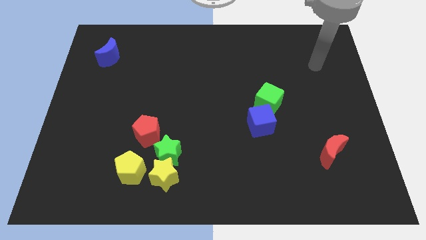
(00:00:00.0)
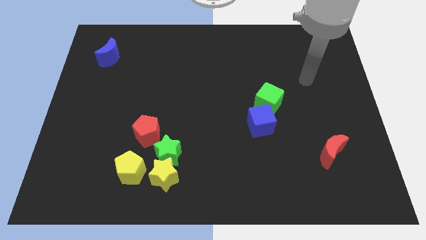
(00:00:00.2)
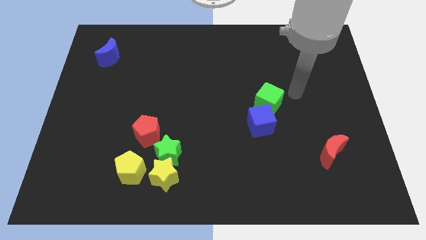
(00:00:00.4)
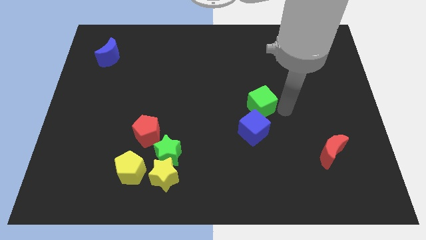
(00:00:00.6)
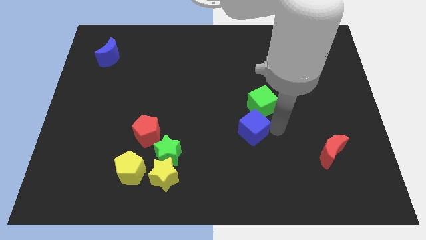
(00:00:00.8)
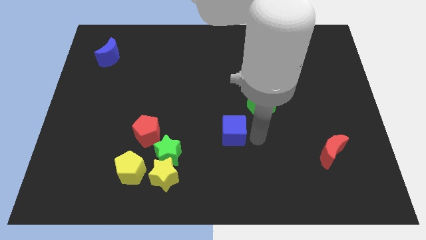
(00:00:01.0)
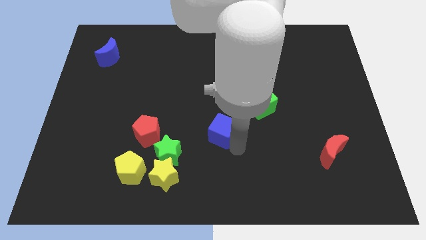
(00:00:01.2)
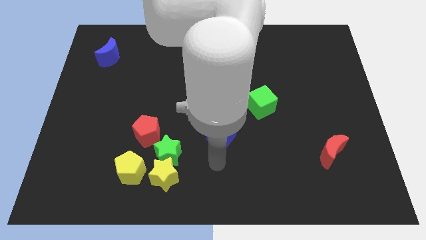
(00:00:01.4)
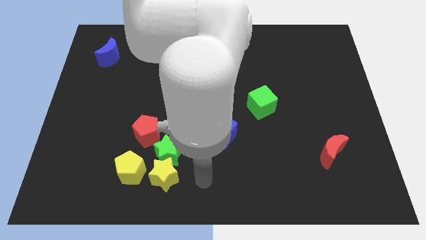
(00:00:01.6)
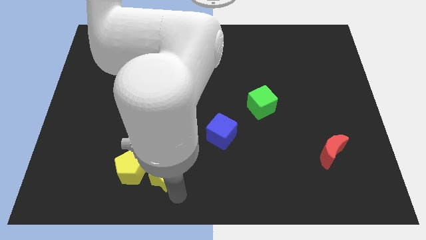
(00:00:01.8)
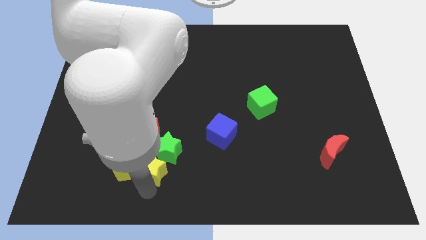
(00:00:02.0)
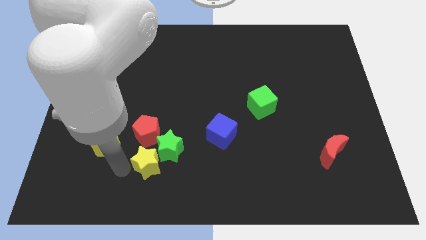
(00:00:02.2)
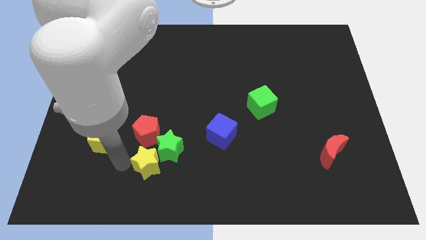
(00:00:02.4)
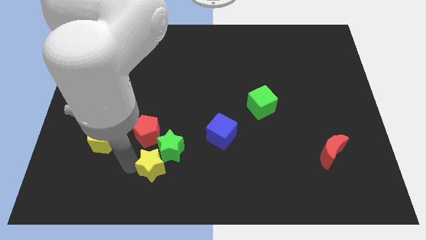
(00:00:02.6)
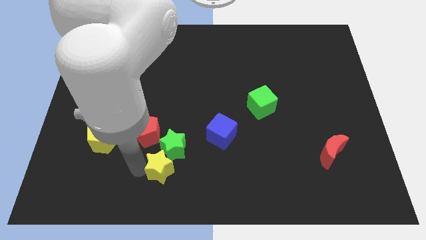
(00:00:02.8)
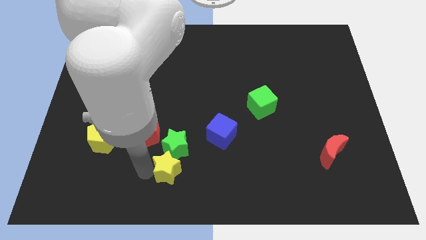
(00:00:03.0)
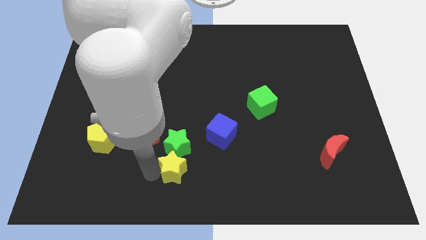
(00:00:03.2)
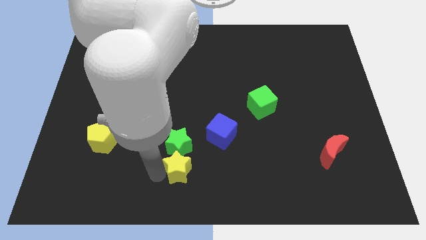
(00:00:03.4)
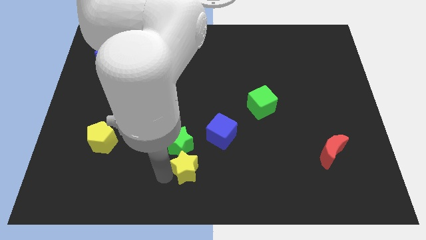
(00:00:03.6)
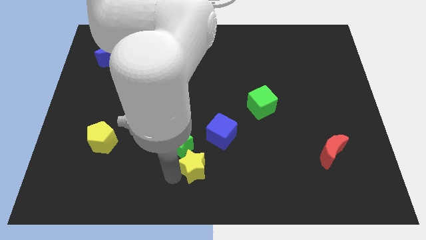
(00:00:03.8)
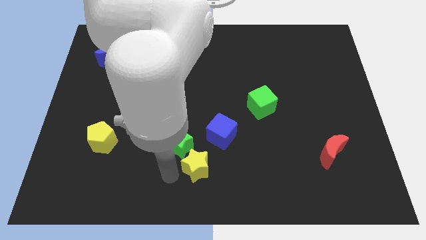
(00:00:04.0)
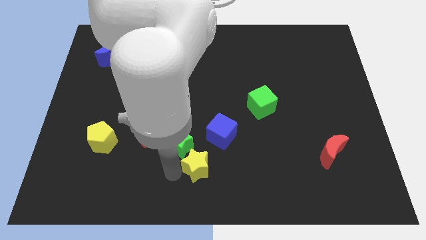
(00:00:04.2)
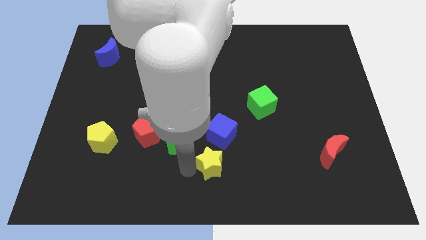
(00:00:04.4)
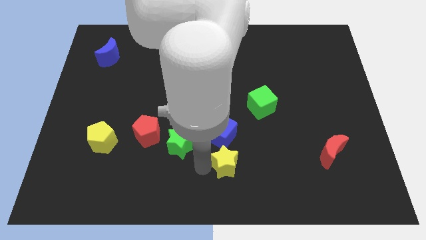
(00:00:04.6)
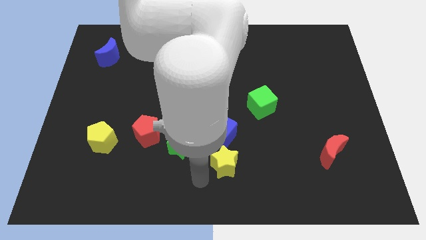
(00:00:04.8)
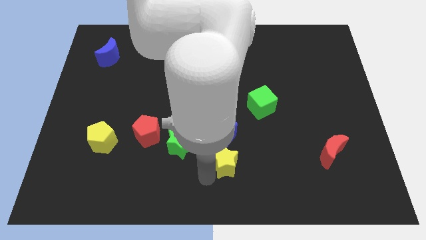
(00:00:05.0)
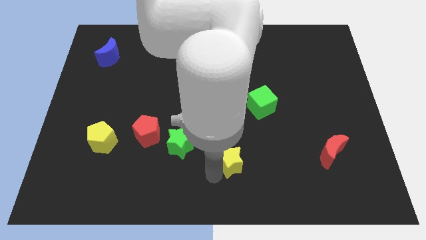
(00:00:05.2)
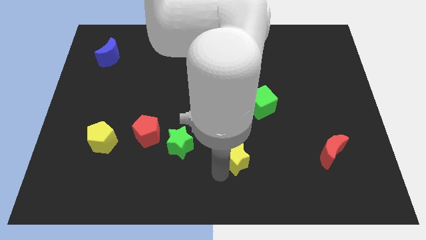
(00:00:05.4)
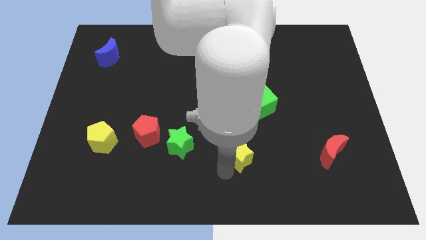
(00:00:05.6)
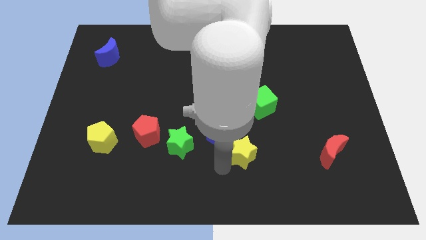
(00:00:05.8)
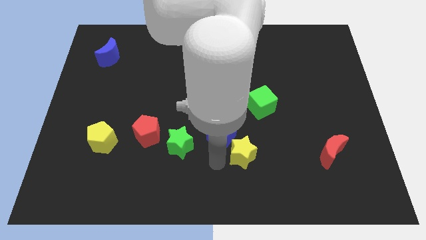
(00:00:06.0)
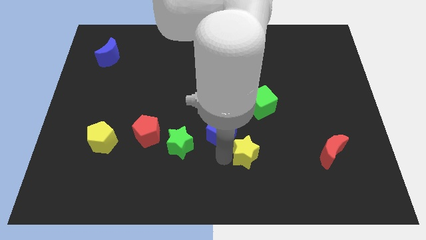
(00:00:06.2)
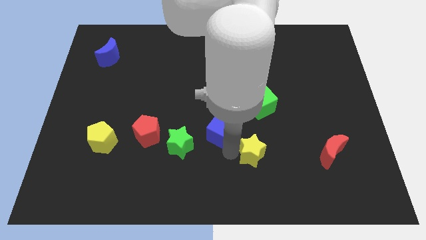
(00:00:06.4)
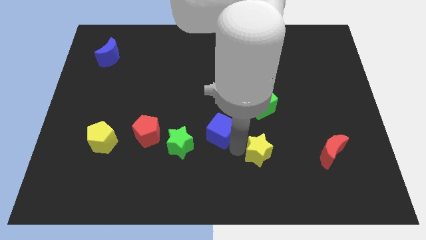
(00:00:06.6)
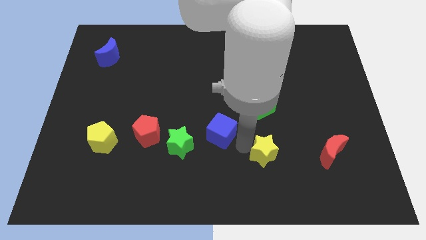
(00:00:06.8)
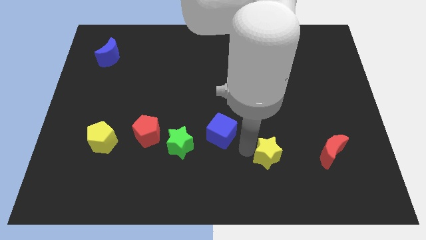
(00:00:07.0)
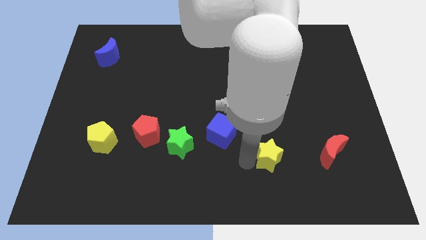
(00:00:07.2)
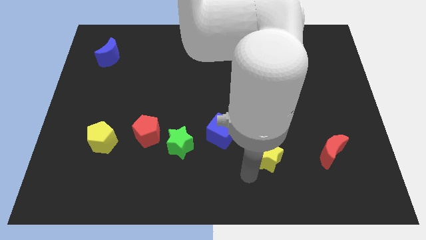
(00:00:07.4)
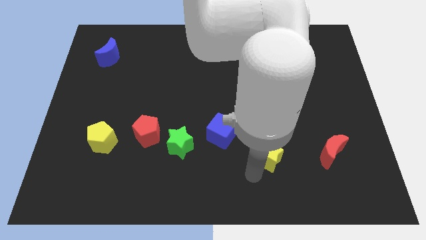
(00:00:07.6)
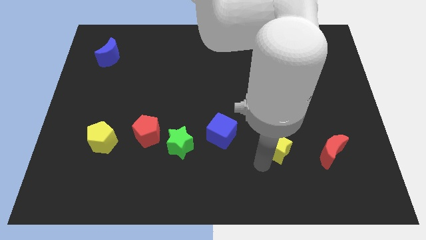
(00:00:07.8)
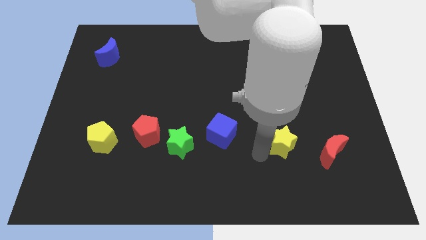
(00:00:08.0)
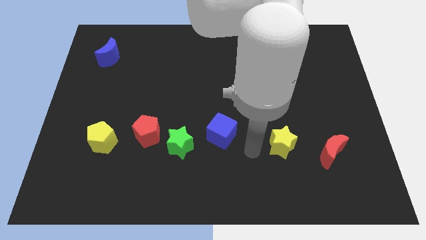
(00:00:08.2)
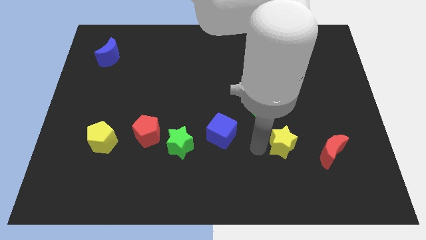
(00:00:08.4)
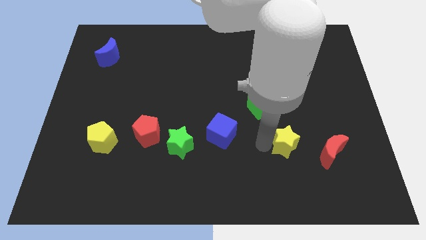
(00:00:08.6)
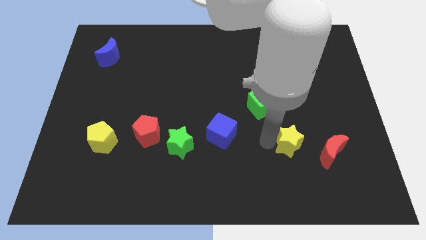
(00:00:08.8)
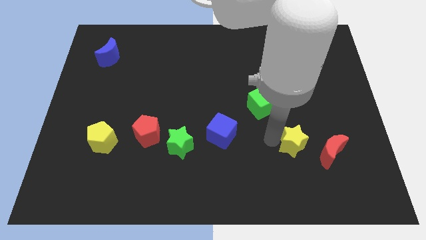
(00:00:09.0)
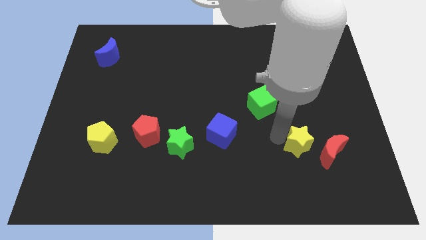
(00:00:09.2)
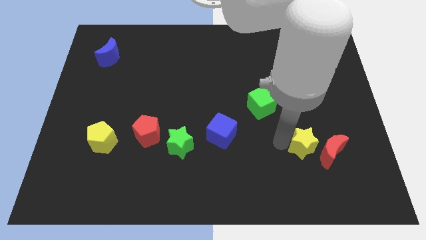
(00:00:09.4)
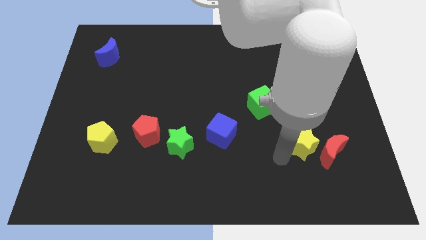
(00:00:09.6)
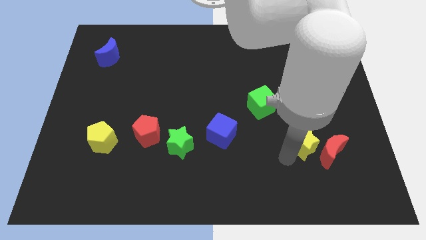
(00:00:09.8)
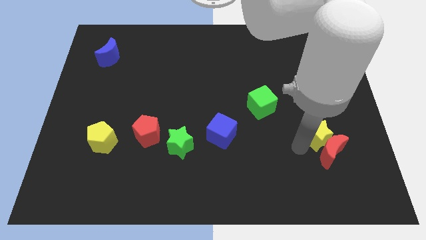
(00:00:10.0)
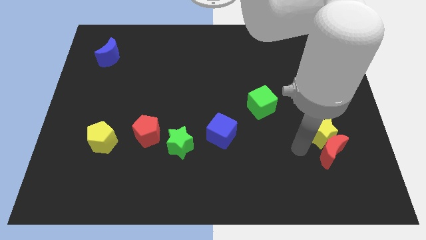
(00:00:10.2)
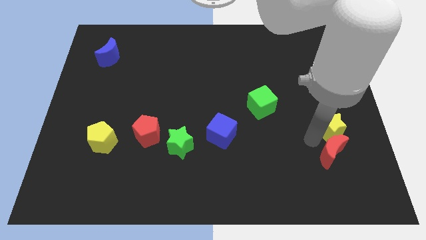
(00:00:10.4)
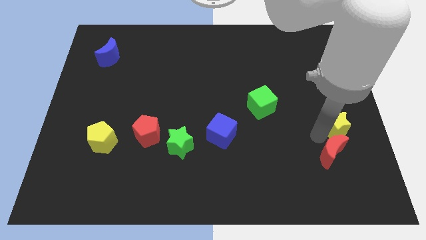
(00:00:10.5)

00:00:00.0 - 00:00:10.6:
put the yellow star to the center right

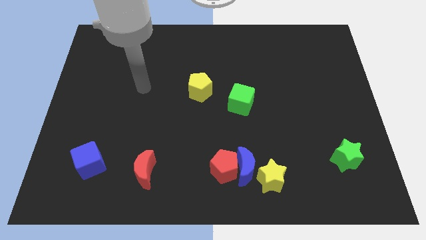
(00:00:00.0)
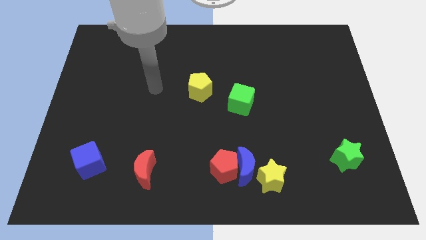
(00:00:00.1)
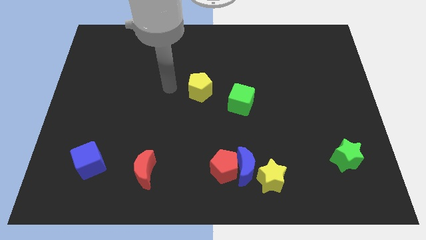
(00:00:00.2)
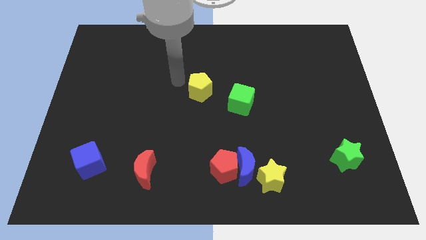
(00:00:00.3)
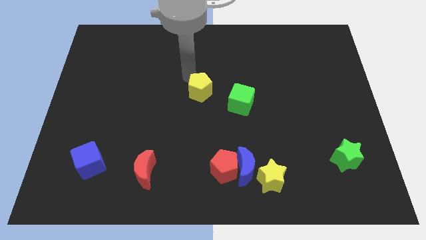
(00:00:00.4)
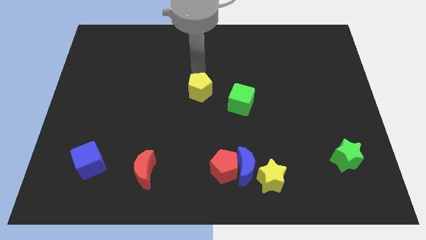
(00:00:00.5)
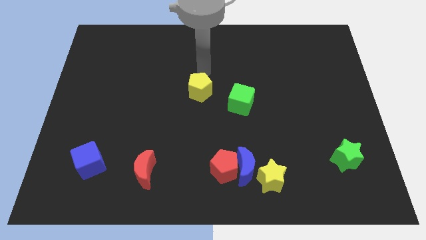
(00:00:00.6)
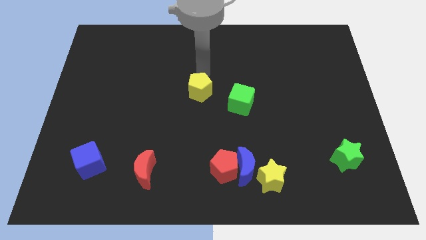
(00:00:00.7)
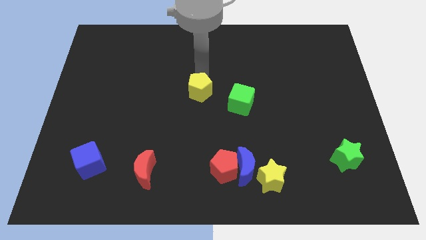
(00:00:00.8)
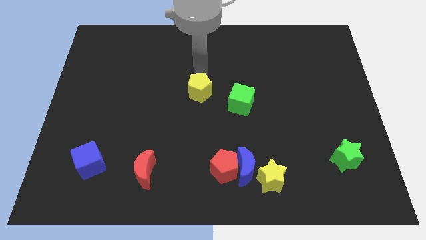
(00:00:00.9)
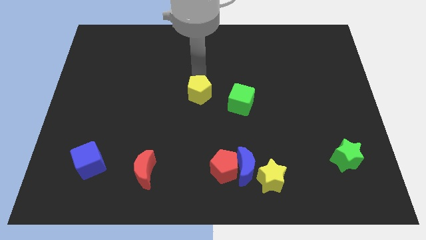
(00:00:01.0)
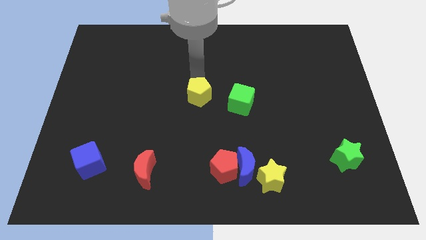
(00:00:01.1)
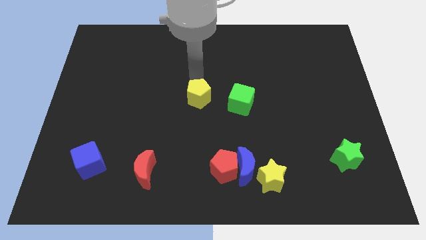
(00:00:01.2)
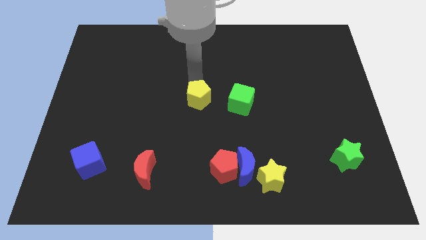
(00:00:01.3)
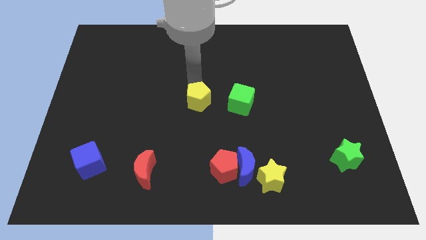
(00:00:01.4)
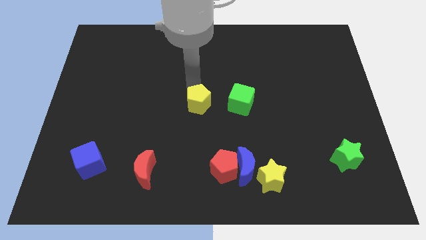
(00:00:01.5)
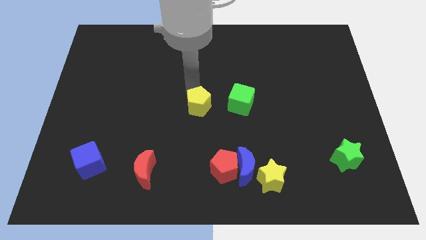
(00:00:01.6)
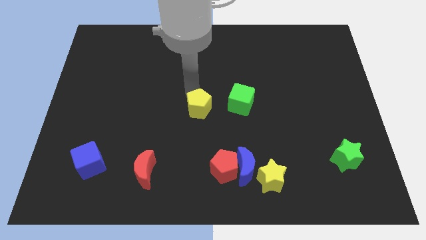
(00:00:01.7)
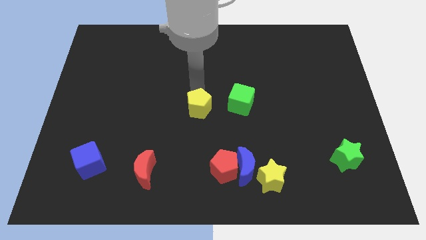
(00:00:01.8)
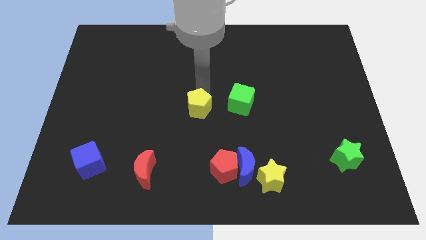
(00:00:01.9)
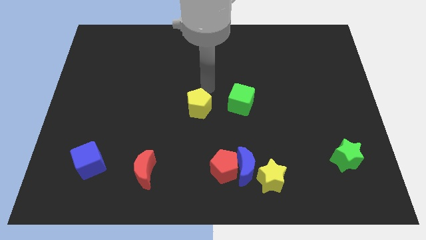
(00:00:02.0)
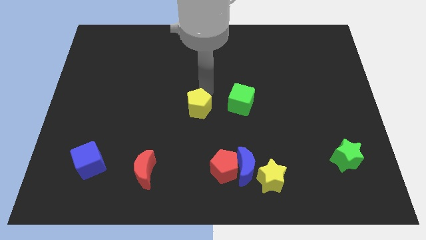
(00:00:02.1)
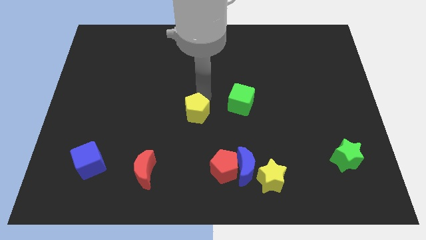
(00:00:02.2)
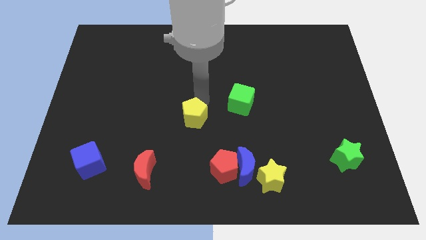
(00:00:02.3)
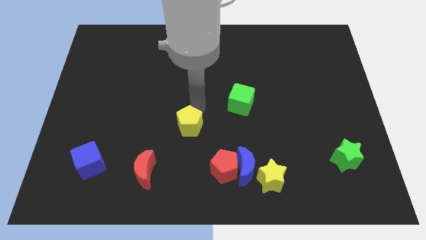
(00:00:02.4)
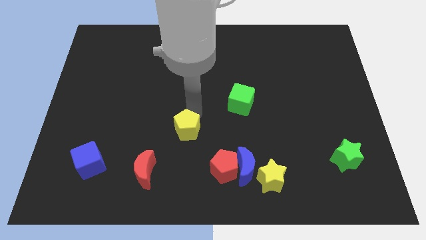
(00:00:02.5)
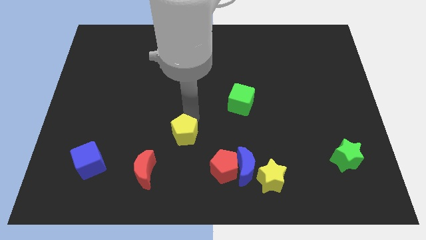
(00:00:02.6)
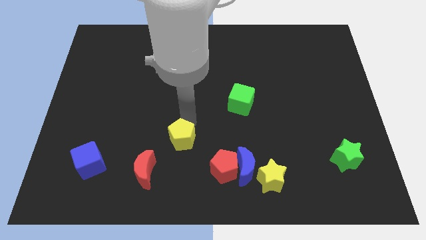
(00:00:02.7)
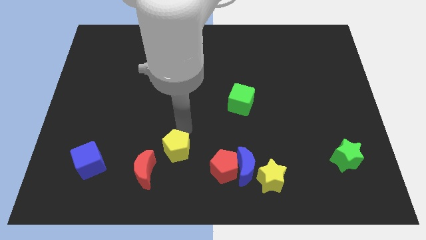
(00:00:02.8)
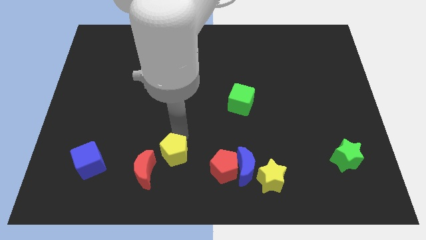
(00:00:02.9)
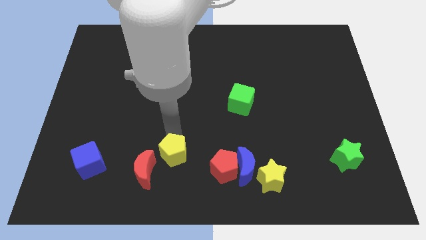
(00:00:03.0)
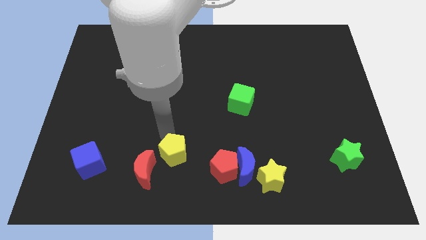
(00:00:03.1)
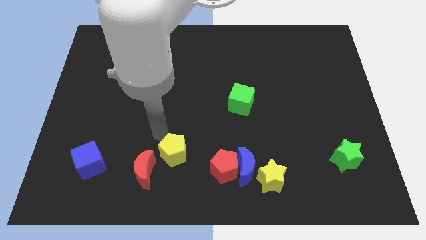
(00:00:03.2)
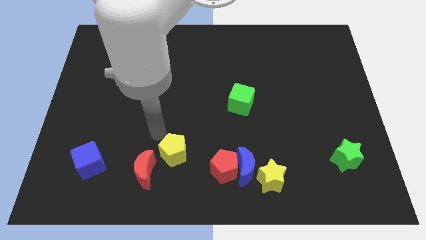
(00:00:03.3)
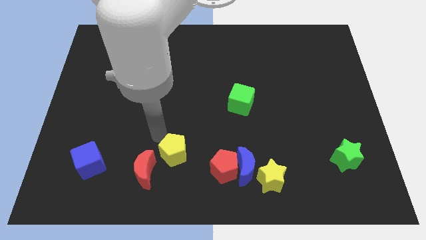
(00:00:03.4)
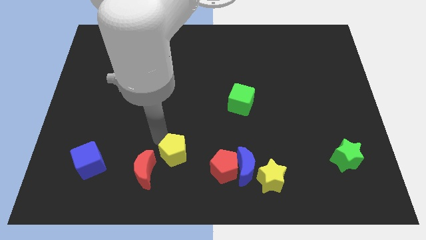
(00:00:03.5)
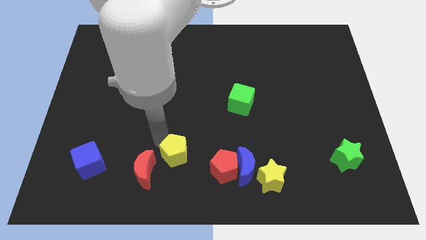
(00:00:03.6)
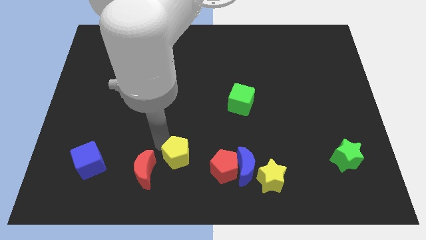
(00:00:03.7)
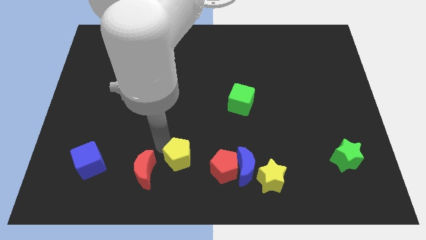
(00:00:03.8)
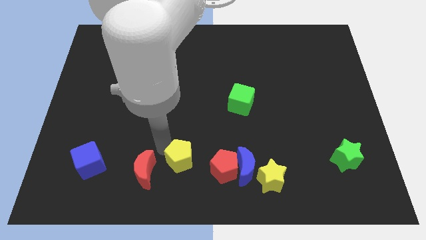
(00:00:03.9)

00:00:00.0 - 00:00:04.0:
push the yellow pentagon to the bottom side
